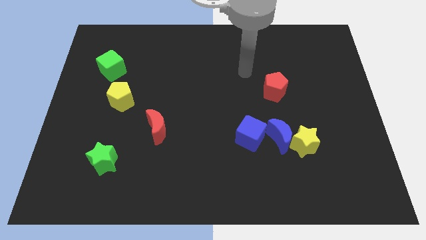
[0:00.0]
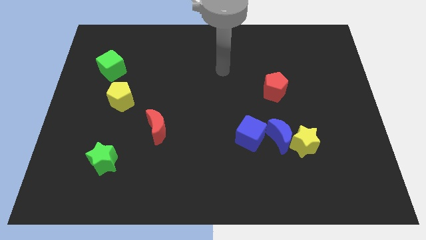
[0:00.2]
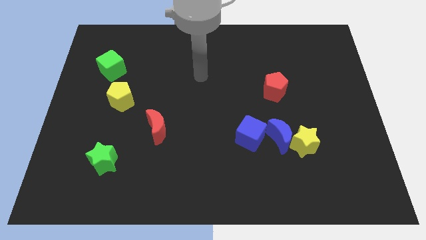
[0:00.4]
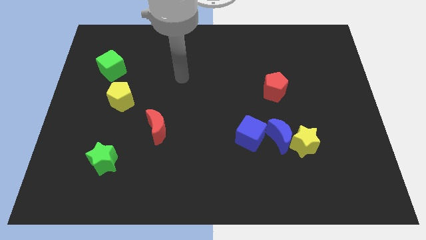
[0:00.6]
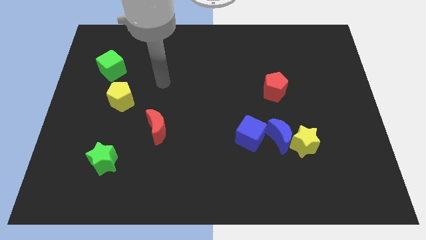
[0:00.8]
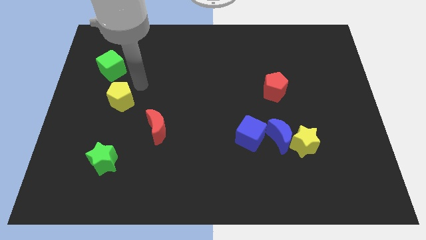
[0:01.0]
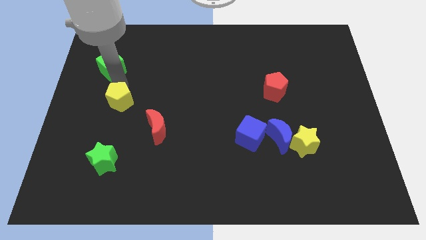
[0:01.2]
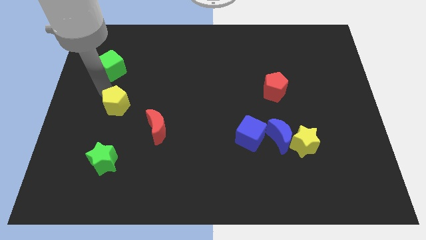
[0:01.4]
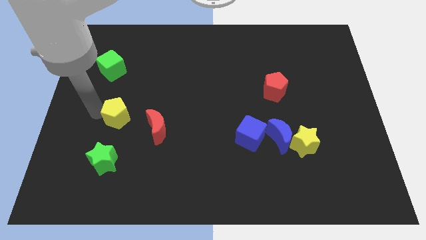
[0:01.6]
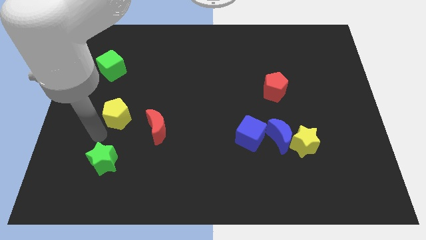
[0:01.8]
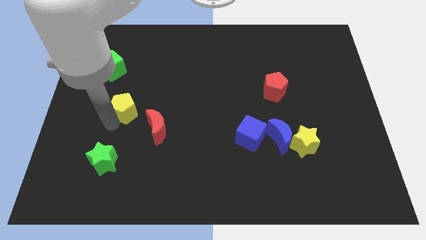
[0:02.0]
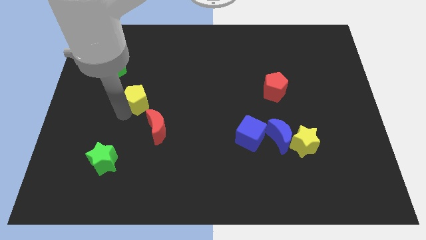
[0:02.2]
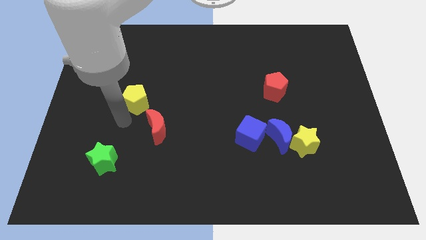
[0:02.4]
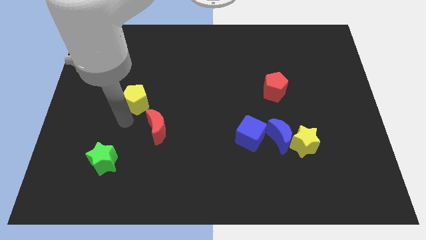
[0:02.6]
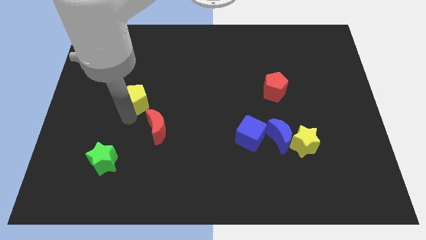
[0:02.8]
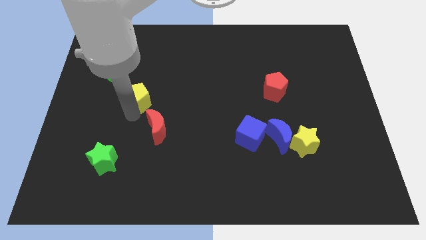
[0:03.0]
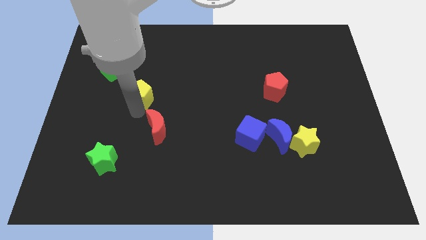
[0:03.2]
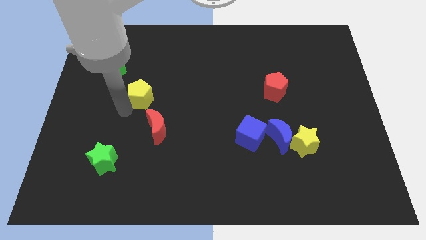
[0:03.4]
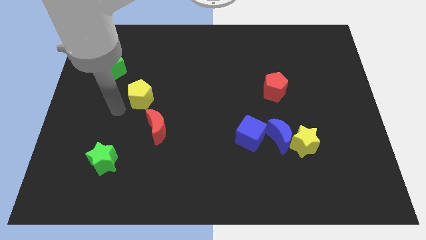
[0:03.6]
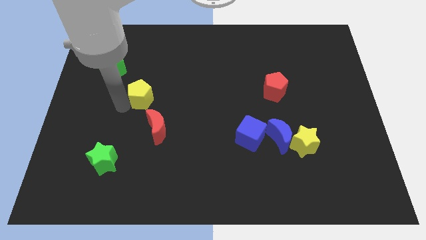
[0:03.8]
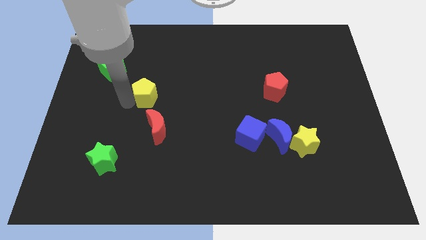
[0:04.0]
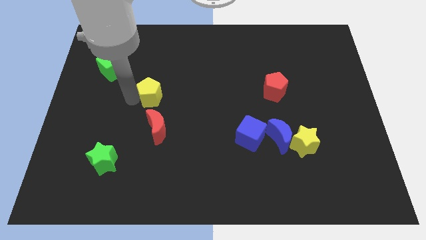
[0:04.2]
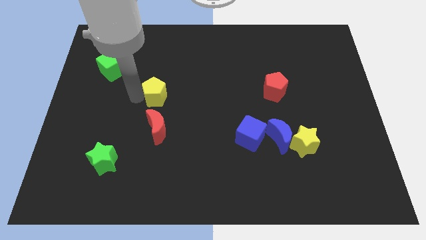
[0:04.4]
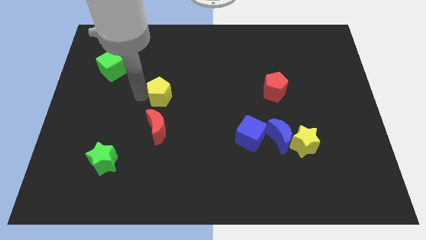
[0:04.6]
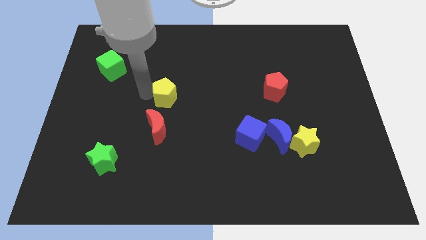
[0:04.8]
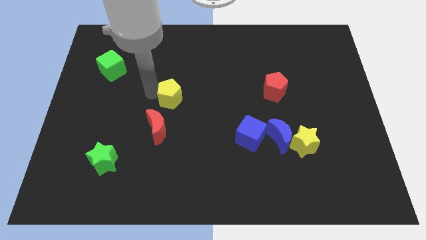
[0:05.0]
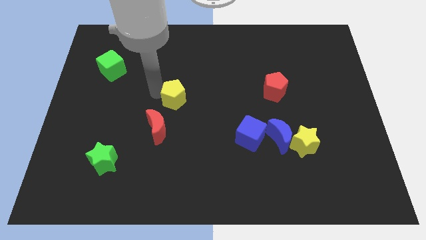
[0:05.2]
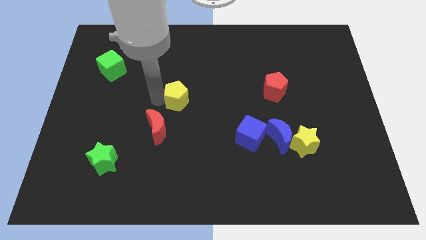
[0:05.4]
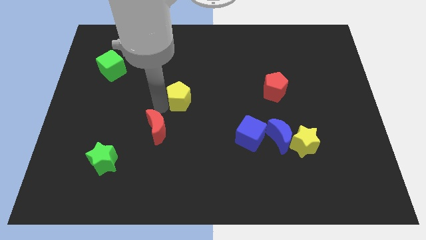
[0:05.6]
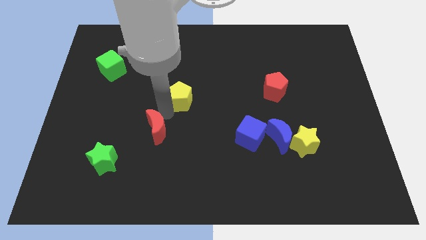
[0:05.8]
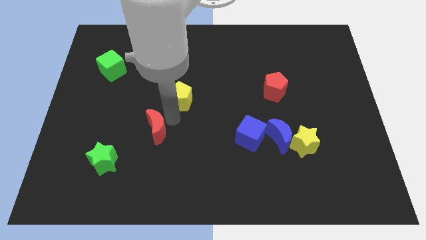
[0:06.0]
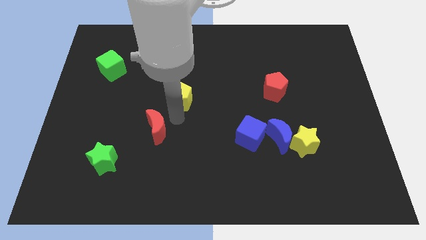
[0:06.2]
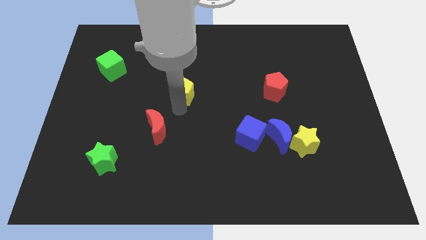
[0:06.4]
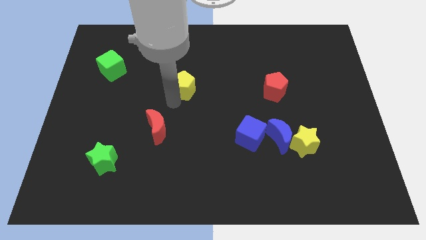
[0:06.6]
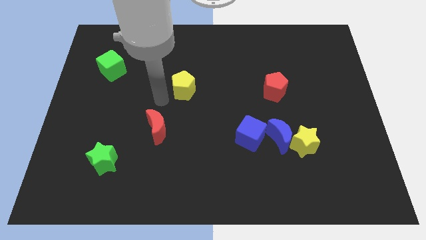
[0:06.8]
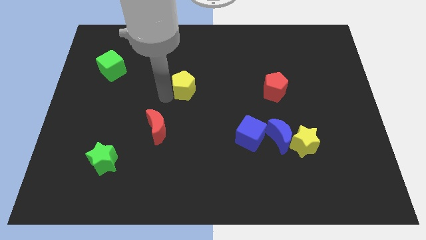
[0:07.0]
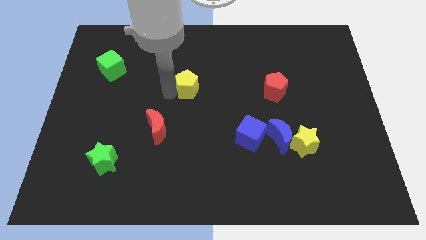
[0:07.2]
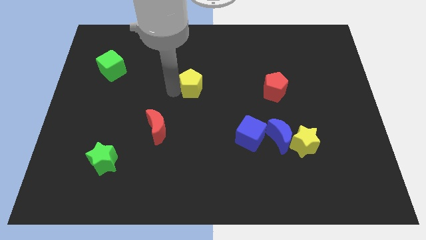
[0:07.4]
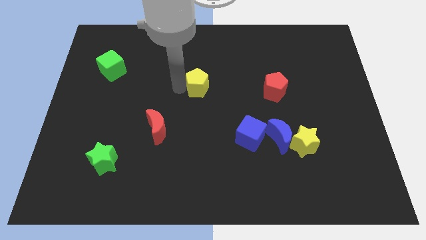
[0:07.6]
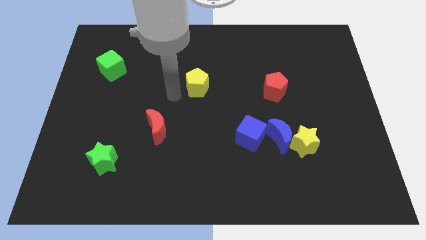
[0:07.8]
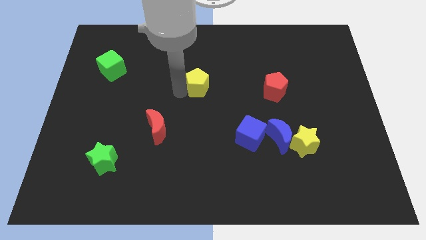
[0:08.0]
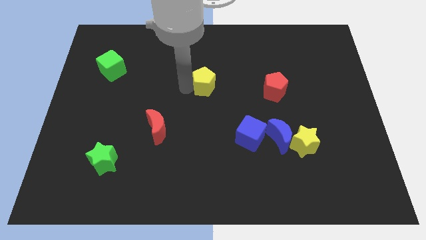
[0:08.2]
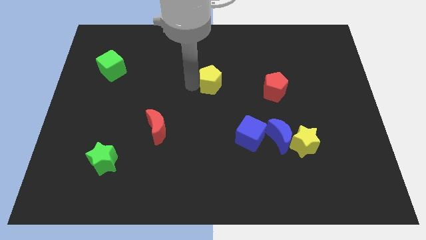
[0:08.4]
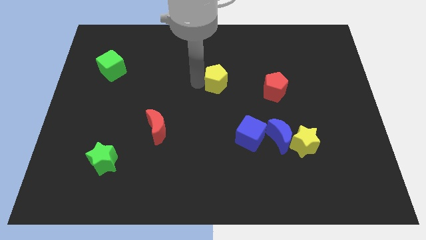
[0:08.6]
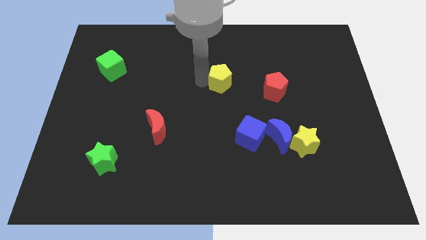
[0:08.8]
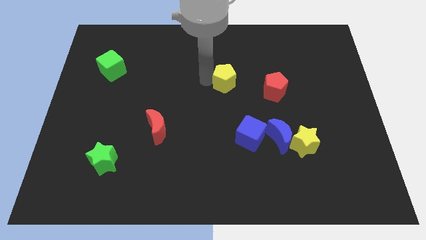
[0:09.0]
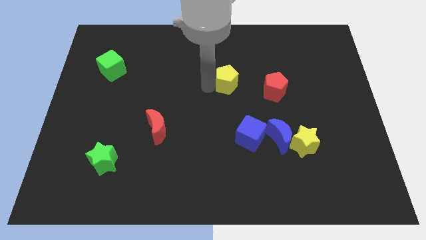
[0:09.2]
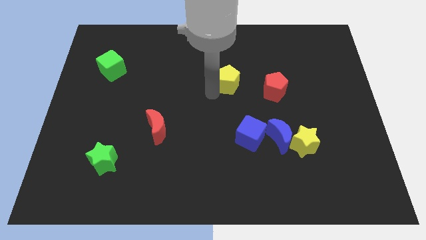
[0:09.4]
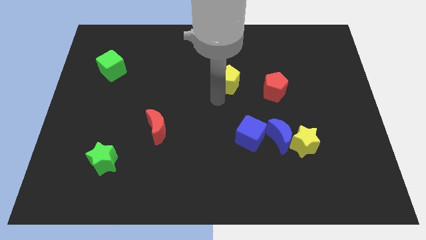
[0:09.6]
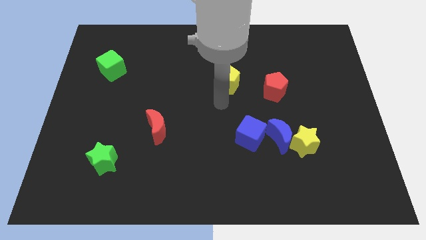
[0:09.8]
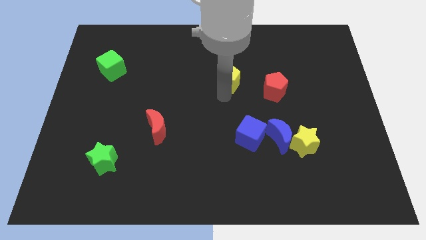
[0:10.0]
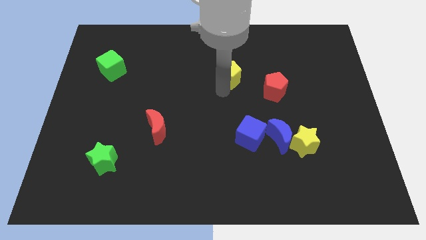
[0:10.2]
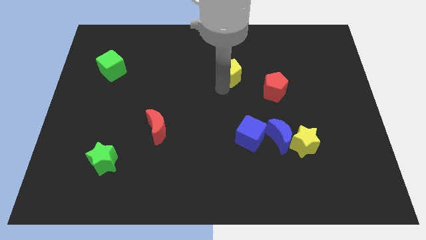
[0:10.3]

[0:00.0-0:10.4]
push the yellow pentagon to the top left side of the red pentagon

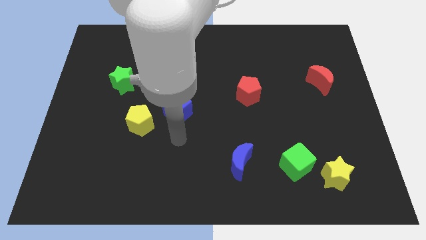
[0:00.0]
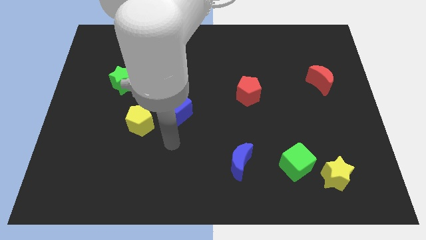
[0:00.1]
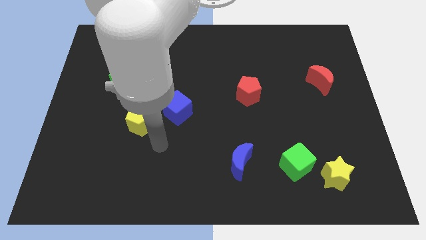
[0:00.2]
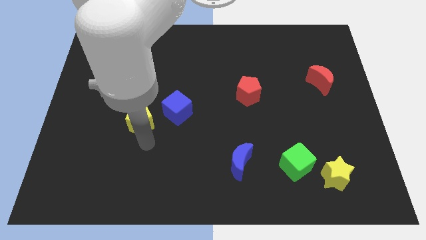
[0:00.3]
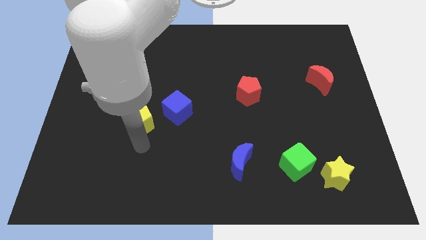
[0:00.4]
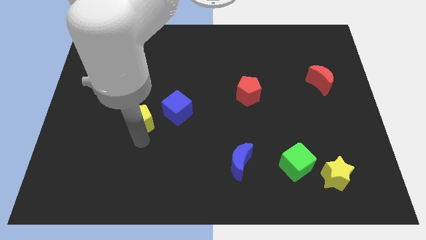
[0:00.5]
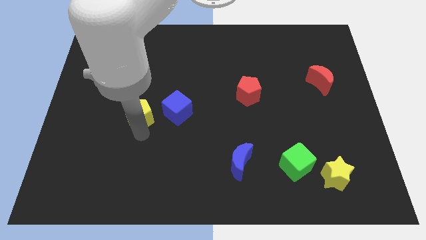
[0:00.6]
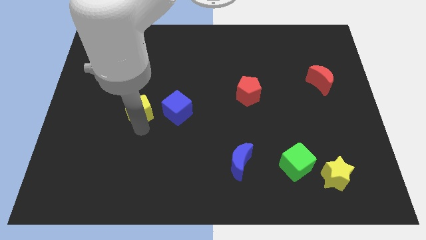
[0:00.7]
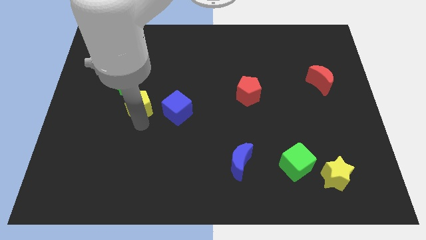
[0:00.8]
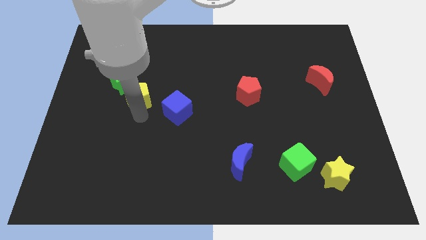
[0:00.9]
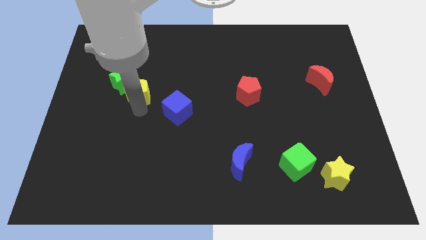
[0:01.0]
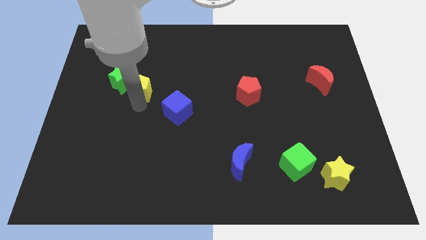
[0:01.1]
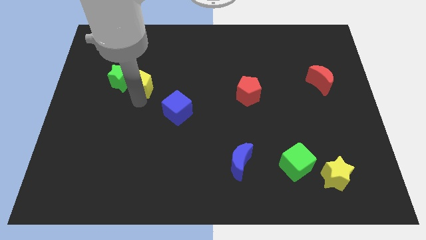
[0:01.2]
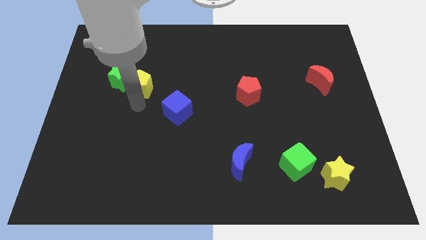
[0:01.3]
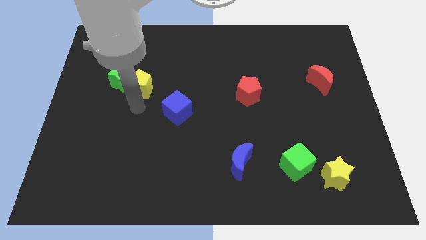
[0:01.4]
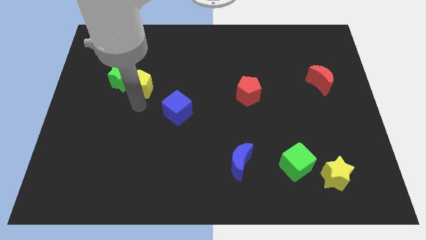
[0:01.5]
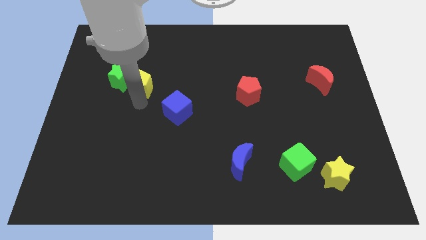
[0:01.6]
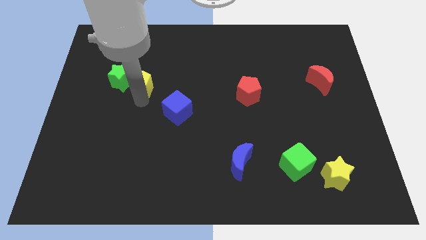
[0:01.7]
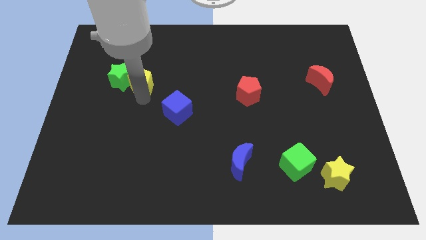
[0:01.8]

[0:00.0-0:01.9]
move the yellow pentagon to the top right of the green star
